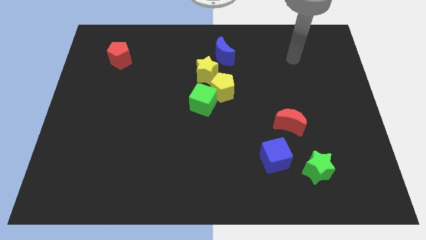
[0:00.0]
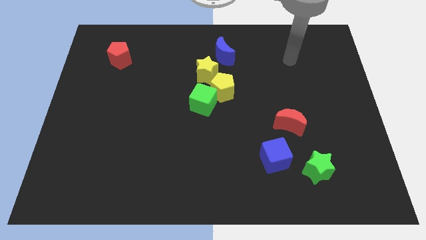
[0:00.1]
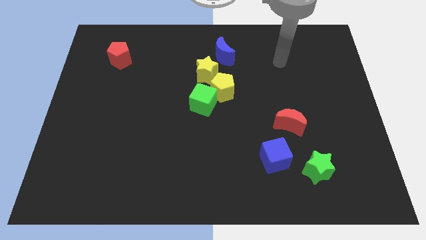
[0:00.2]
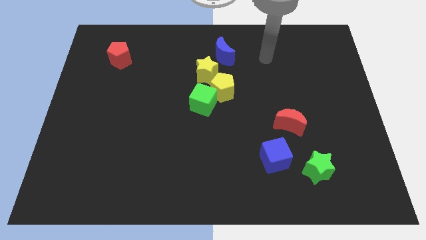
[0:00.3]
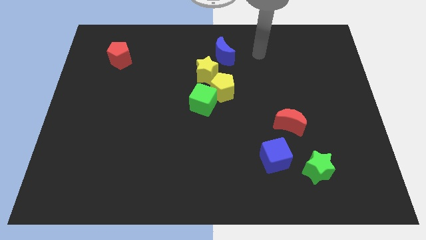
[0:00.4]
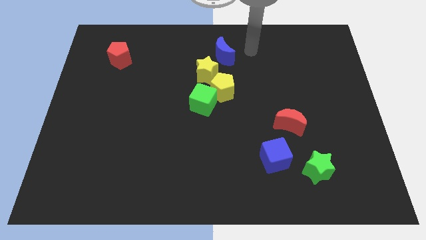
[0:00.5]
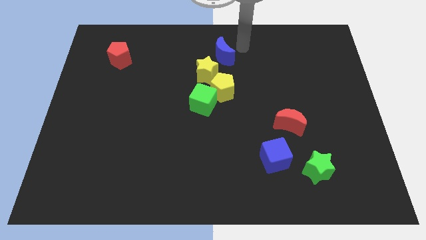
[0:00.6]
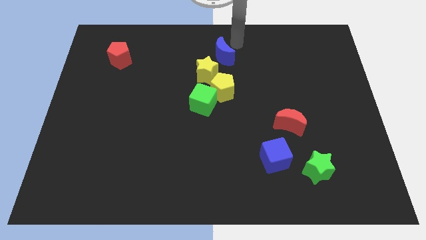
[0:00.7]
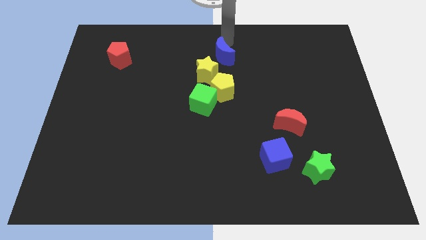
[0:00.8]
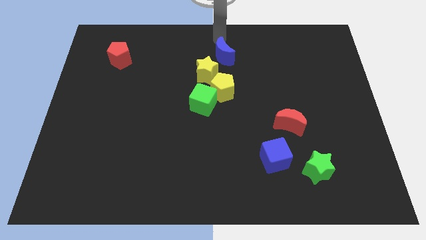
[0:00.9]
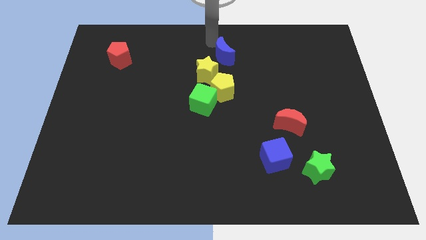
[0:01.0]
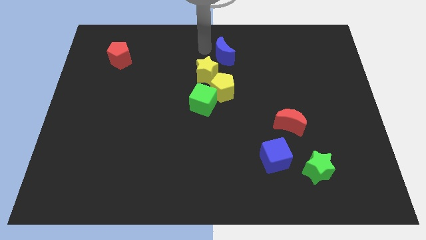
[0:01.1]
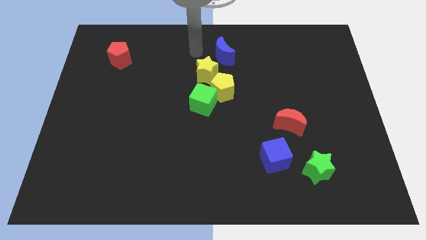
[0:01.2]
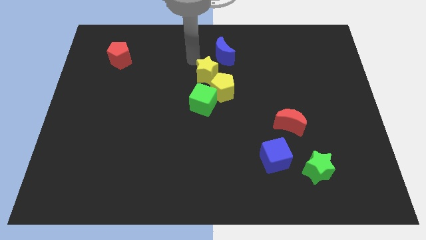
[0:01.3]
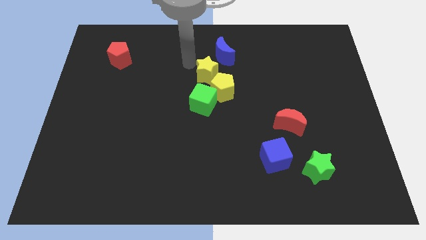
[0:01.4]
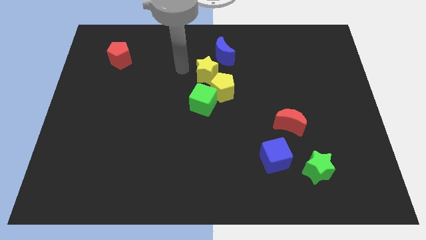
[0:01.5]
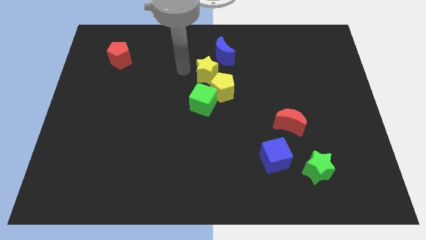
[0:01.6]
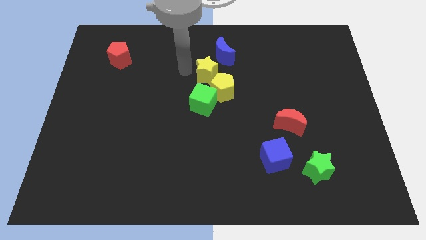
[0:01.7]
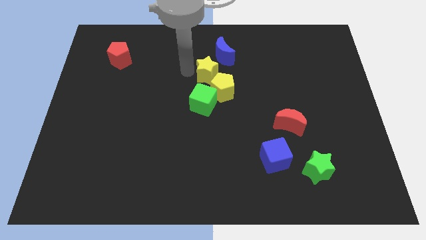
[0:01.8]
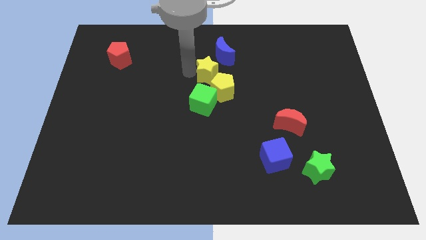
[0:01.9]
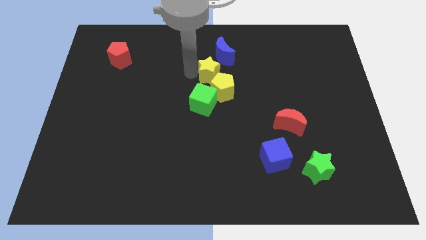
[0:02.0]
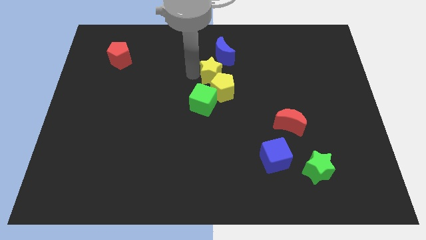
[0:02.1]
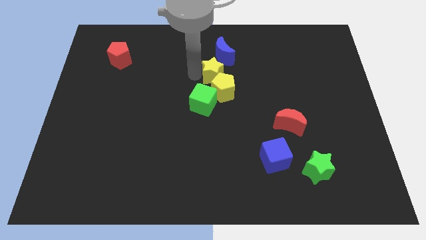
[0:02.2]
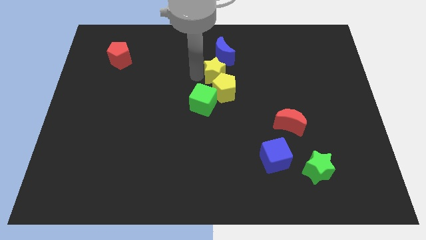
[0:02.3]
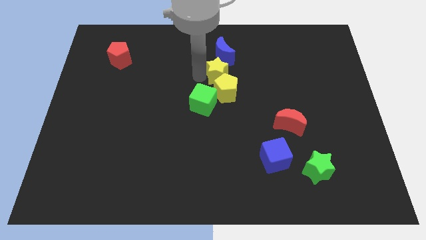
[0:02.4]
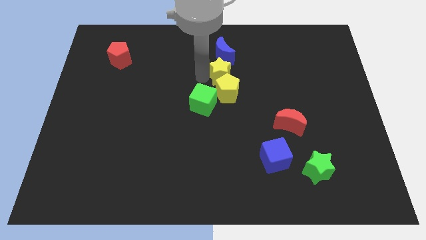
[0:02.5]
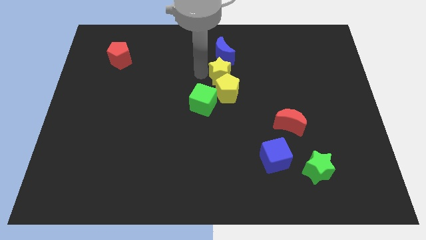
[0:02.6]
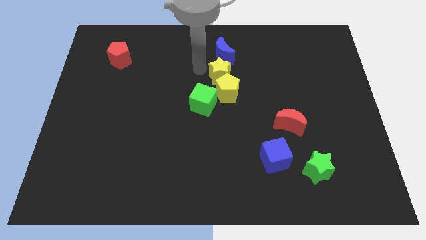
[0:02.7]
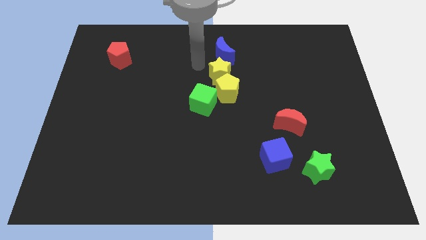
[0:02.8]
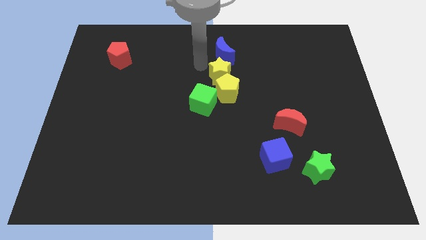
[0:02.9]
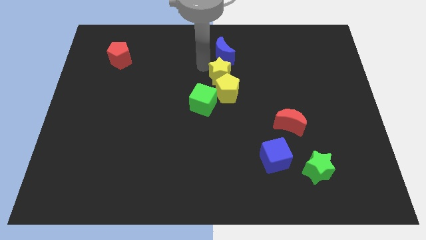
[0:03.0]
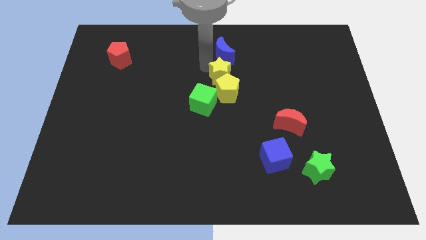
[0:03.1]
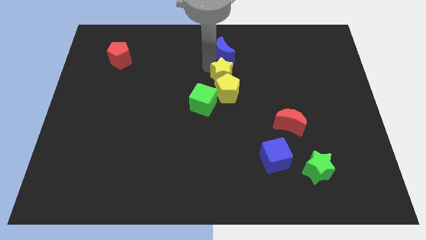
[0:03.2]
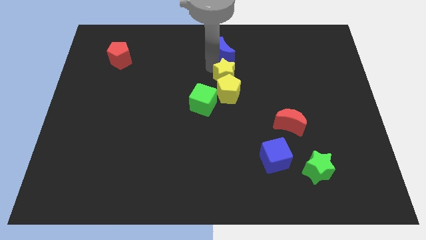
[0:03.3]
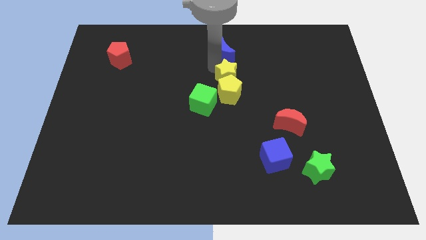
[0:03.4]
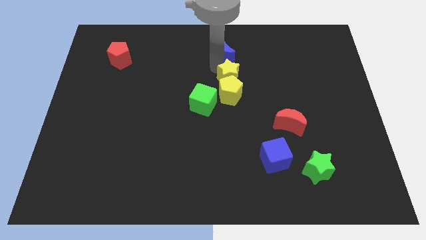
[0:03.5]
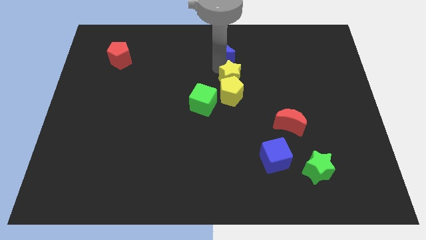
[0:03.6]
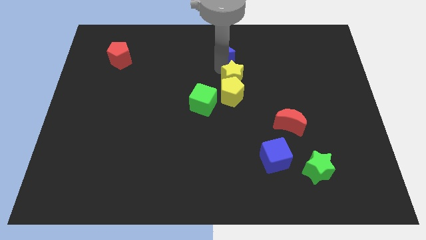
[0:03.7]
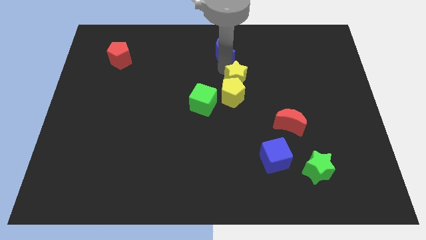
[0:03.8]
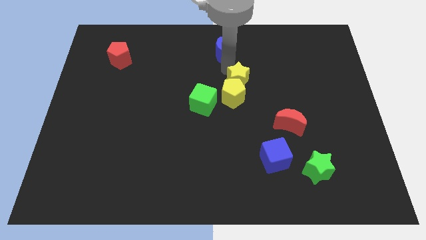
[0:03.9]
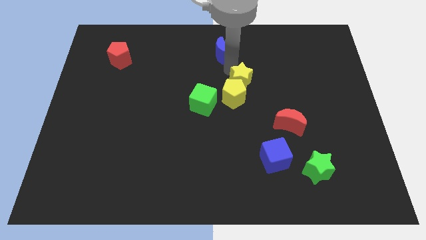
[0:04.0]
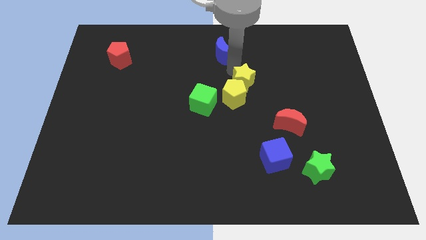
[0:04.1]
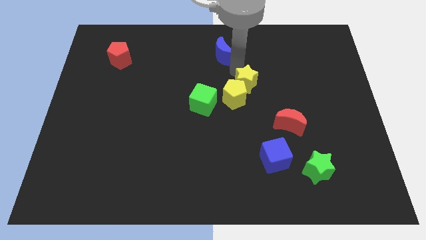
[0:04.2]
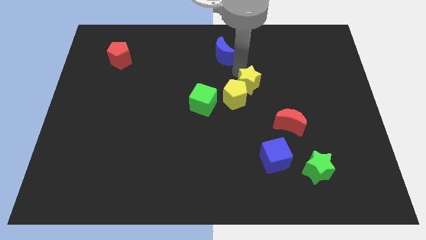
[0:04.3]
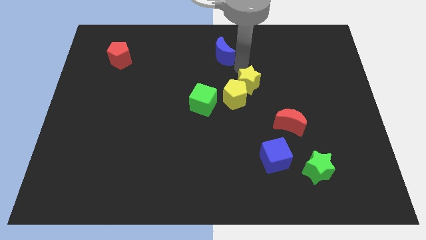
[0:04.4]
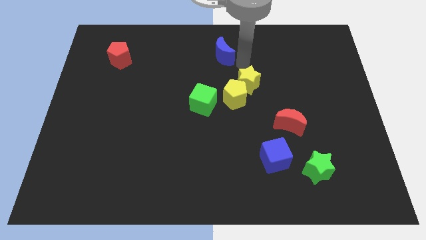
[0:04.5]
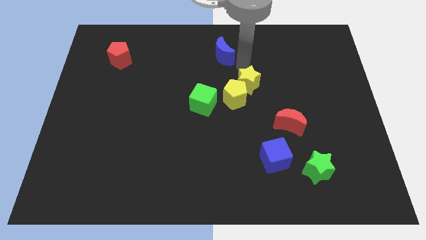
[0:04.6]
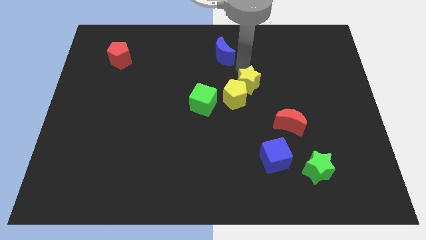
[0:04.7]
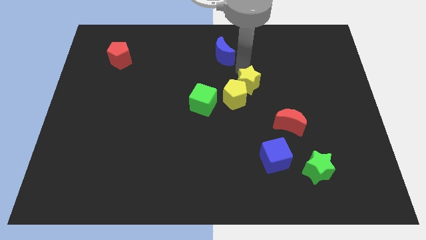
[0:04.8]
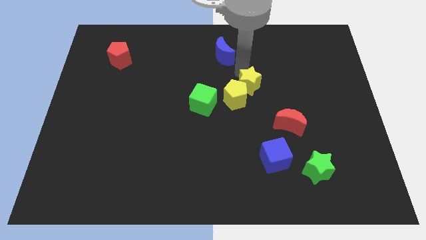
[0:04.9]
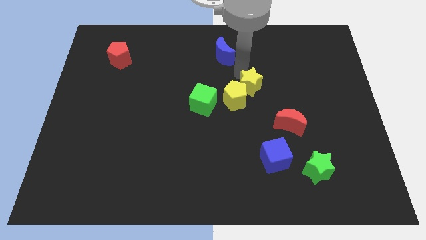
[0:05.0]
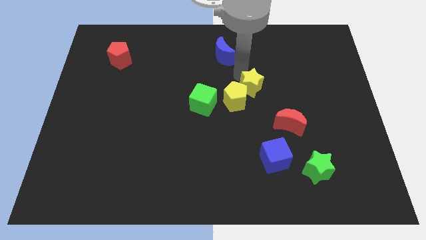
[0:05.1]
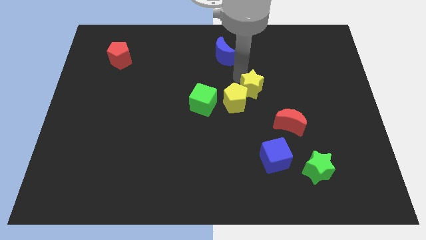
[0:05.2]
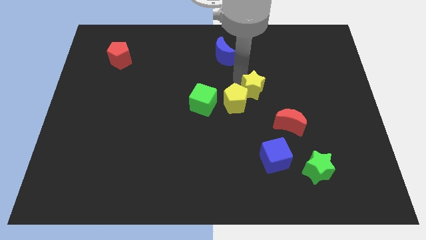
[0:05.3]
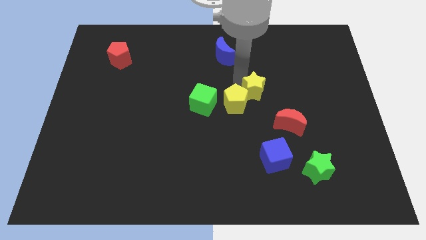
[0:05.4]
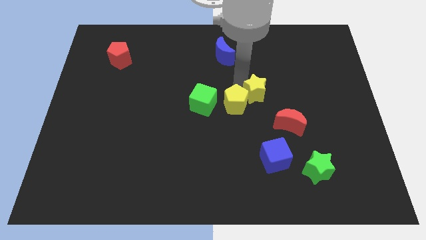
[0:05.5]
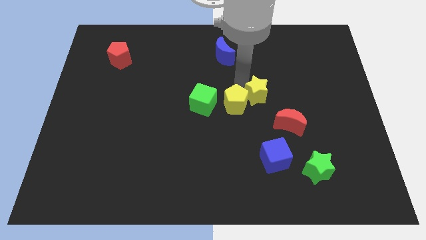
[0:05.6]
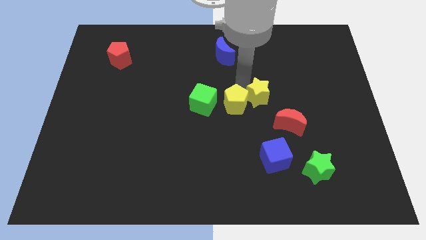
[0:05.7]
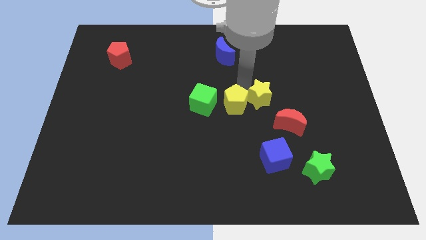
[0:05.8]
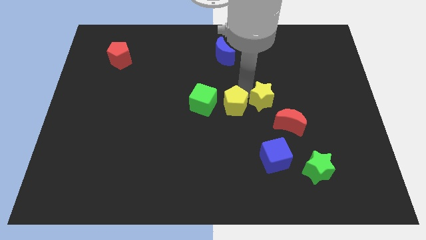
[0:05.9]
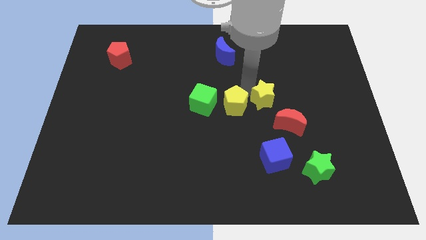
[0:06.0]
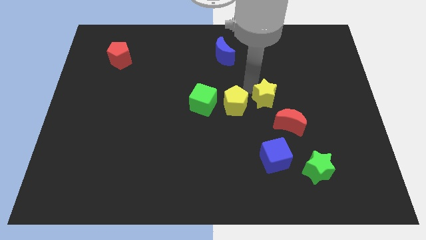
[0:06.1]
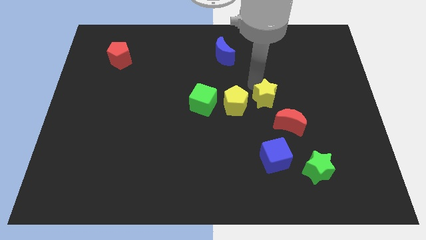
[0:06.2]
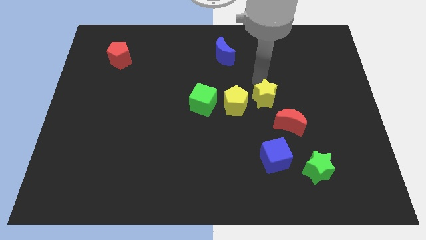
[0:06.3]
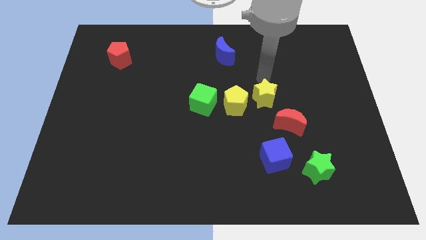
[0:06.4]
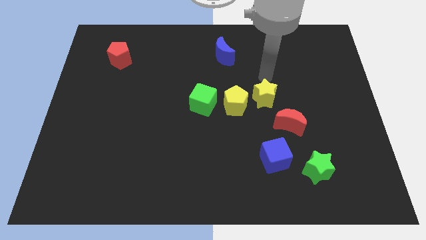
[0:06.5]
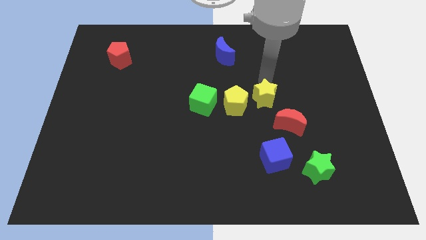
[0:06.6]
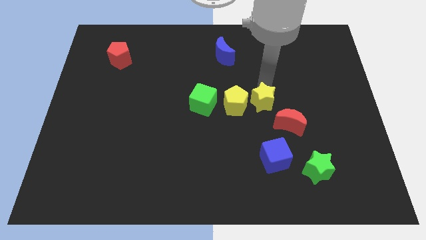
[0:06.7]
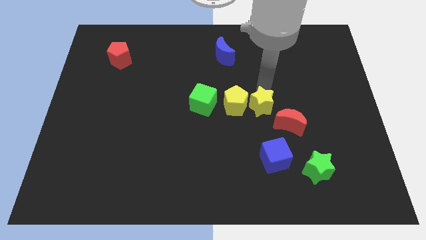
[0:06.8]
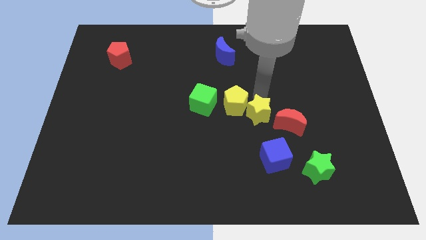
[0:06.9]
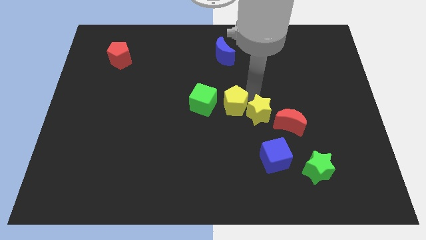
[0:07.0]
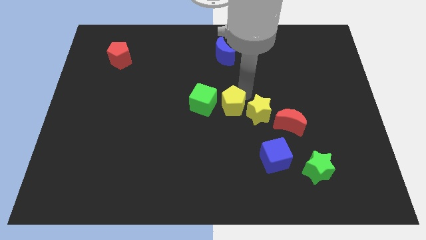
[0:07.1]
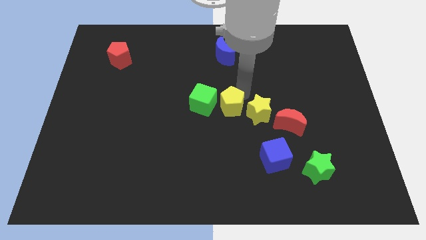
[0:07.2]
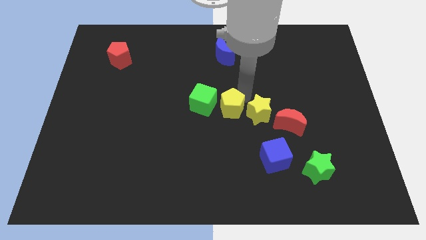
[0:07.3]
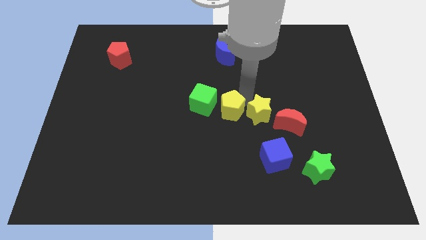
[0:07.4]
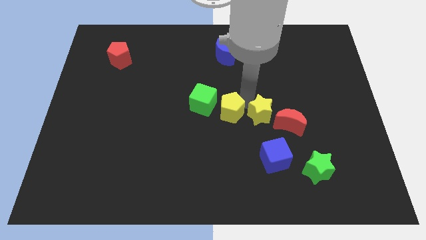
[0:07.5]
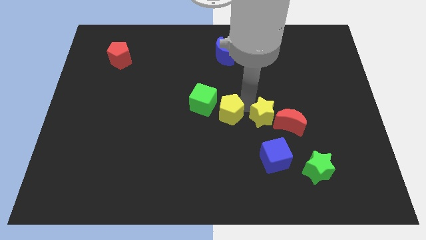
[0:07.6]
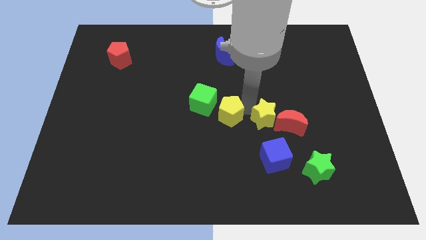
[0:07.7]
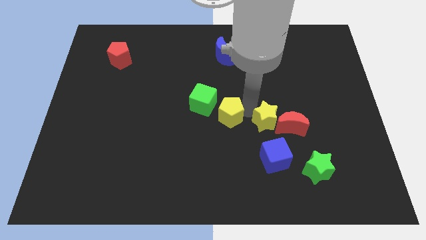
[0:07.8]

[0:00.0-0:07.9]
move the yellow star down and to the right

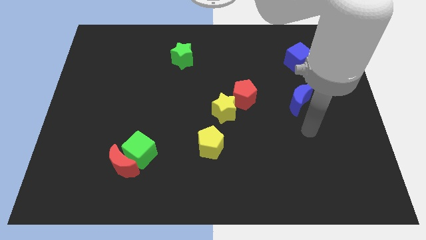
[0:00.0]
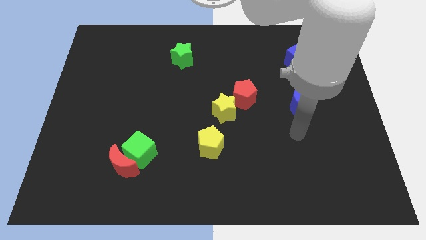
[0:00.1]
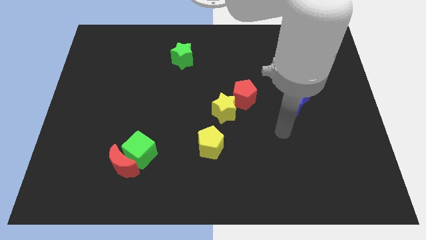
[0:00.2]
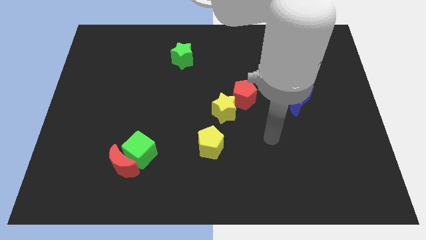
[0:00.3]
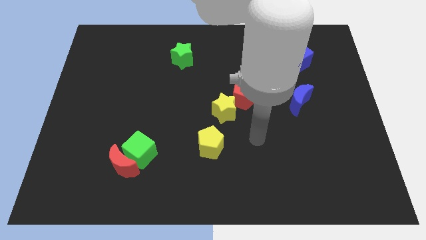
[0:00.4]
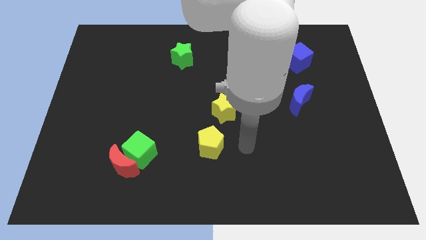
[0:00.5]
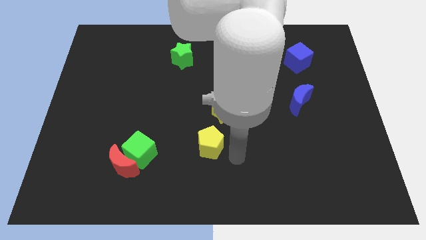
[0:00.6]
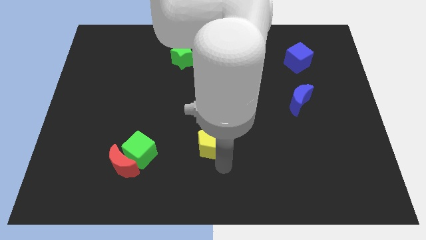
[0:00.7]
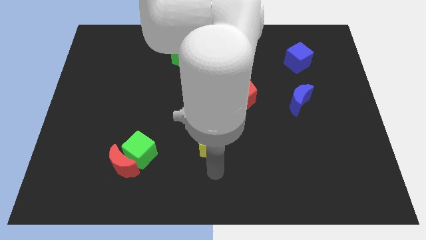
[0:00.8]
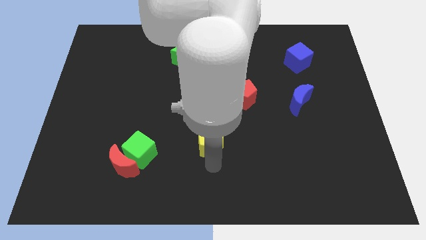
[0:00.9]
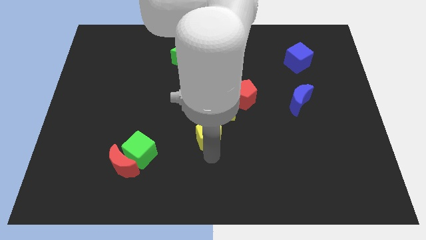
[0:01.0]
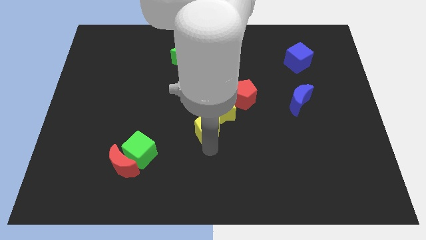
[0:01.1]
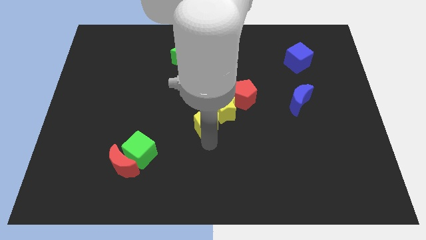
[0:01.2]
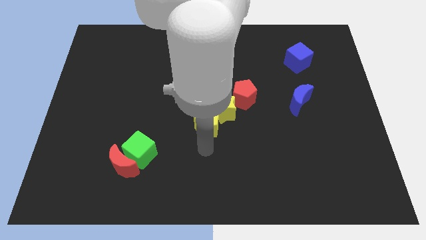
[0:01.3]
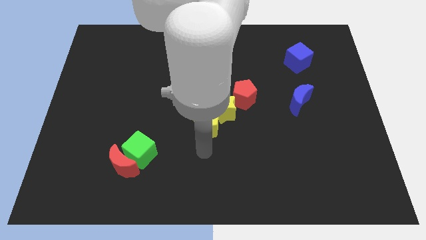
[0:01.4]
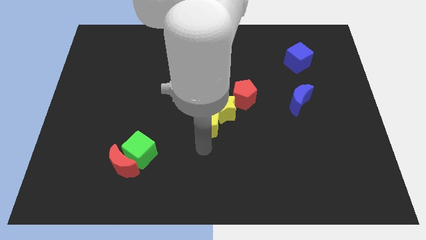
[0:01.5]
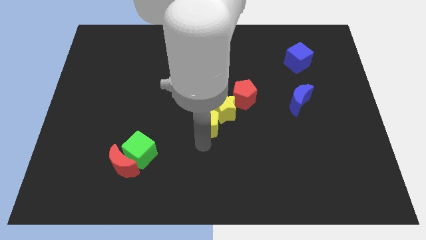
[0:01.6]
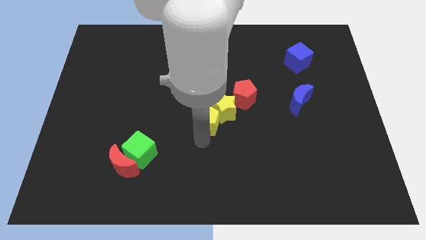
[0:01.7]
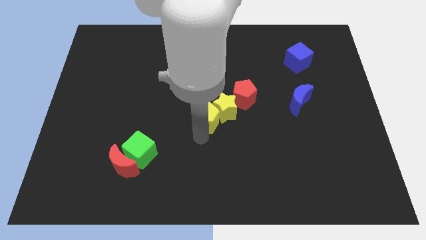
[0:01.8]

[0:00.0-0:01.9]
slide the yellow pentagon upwards slightly
